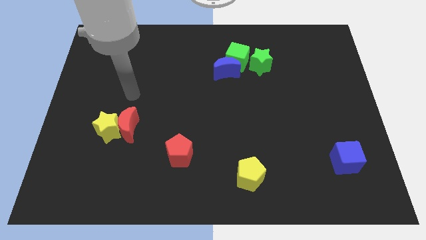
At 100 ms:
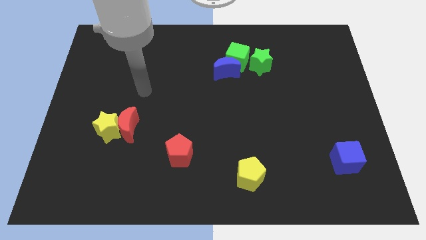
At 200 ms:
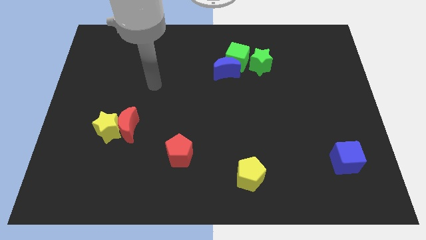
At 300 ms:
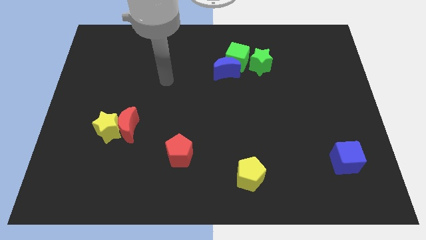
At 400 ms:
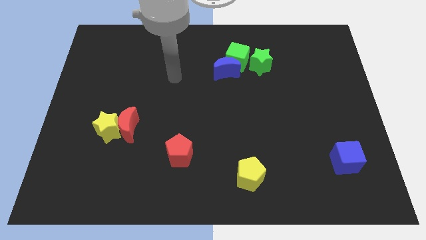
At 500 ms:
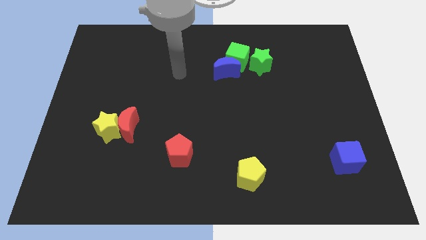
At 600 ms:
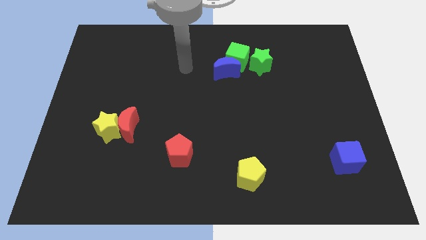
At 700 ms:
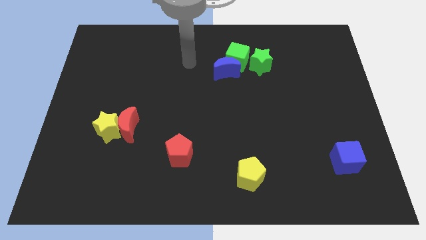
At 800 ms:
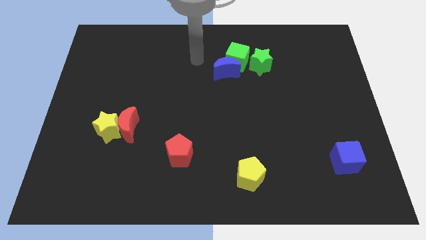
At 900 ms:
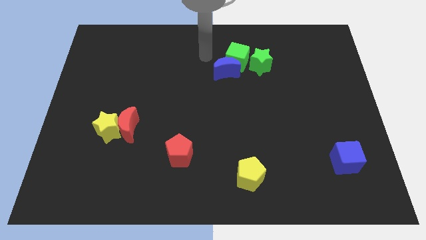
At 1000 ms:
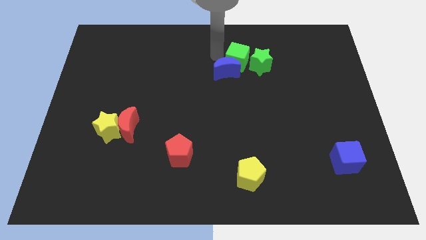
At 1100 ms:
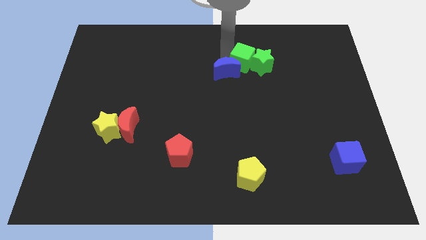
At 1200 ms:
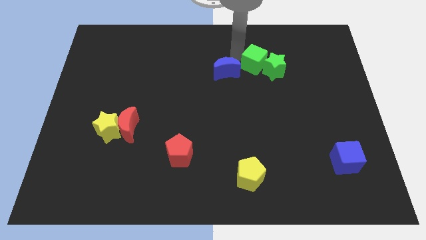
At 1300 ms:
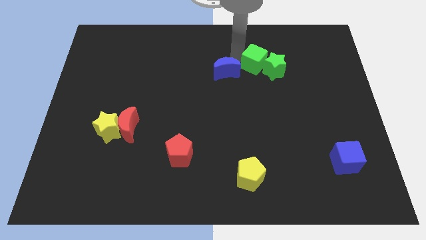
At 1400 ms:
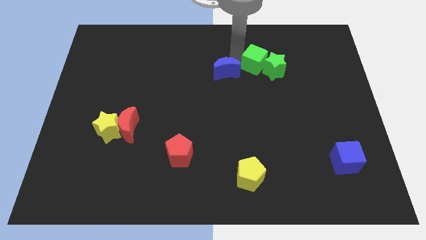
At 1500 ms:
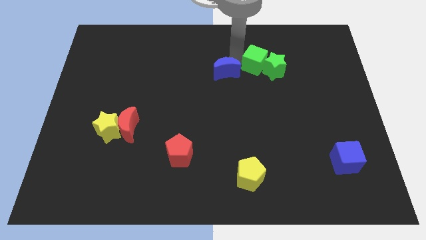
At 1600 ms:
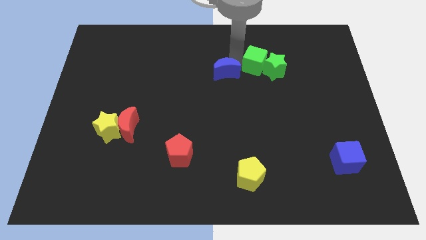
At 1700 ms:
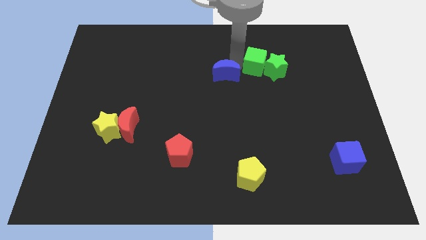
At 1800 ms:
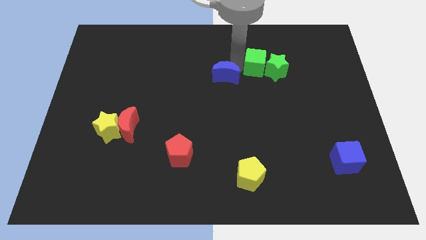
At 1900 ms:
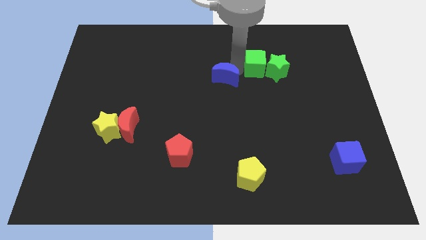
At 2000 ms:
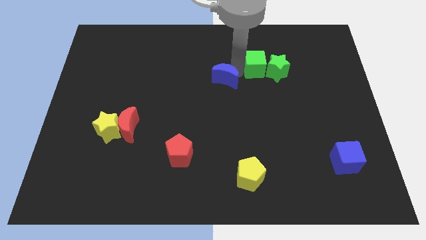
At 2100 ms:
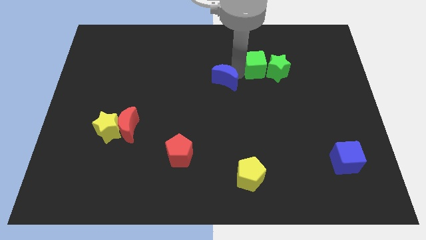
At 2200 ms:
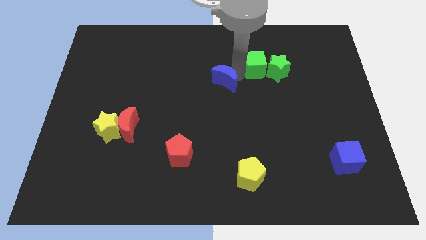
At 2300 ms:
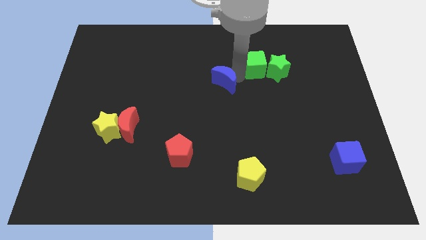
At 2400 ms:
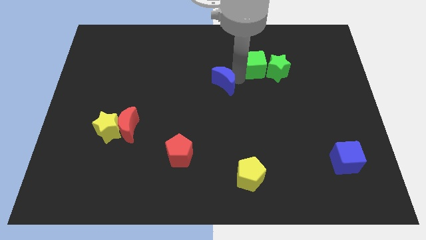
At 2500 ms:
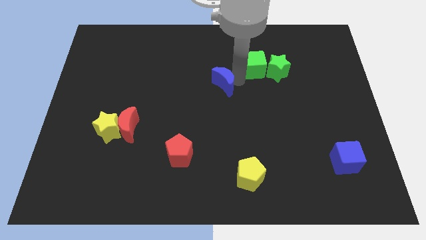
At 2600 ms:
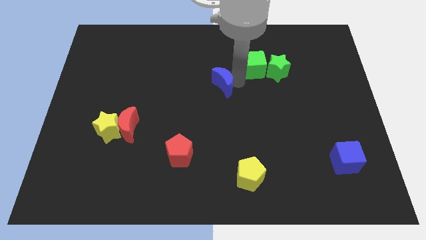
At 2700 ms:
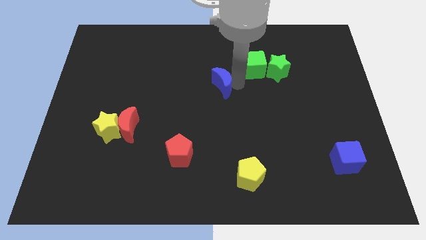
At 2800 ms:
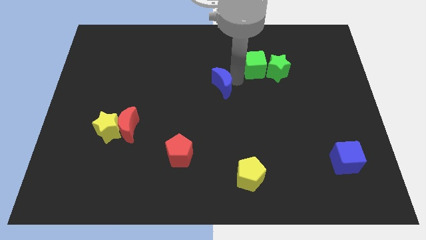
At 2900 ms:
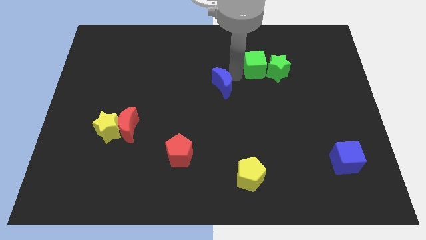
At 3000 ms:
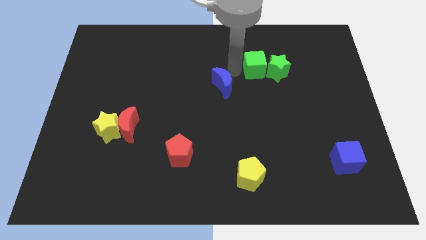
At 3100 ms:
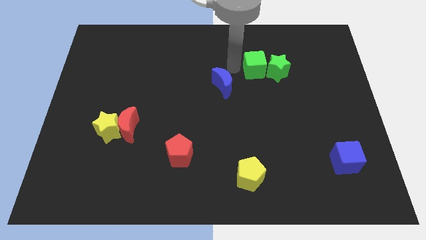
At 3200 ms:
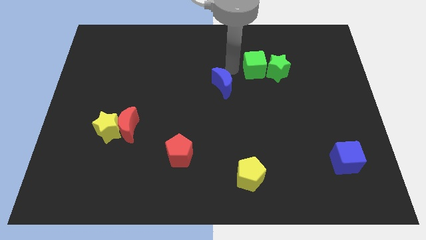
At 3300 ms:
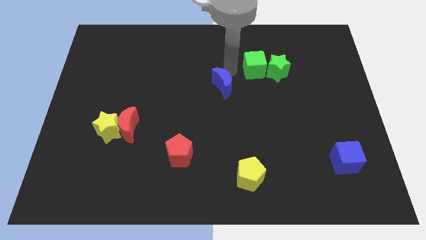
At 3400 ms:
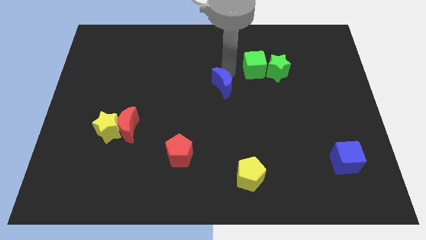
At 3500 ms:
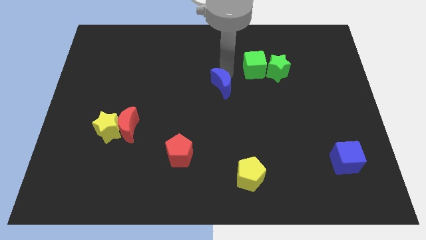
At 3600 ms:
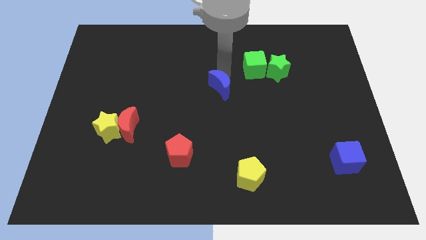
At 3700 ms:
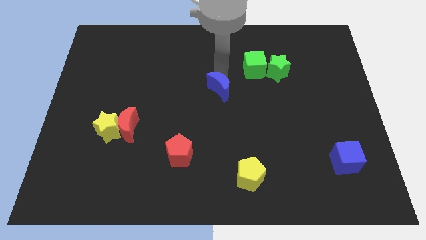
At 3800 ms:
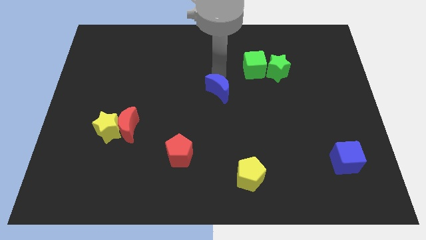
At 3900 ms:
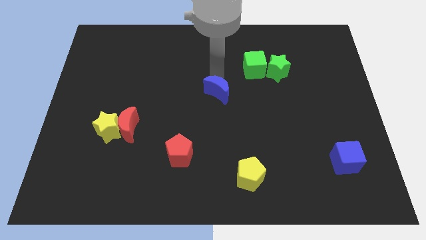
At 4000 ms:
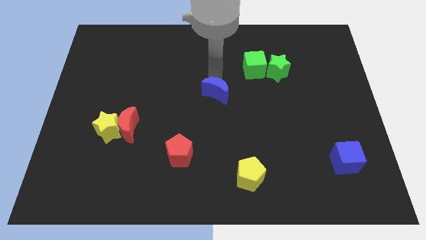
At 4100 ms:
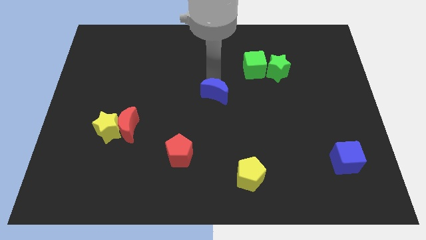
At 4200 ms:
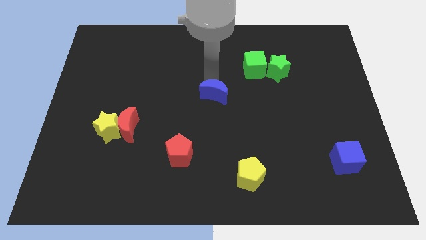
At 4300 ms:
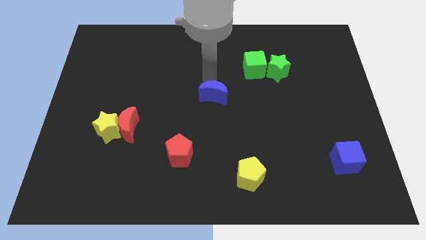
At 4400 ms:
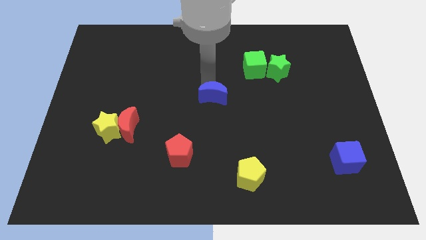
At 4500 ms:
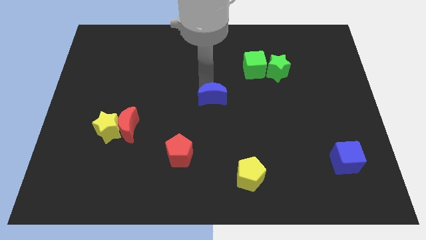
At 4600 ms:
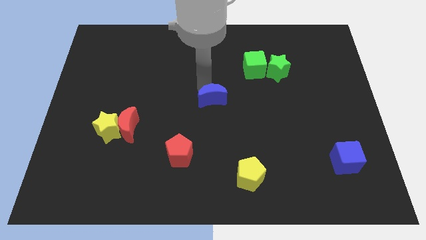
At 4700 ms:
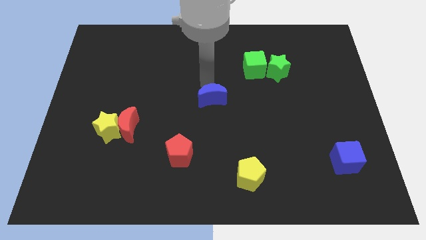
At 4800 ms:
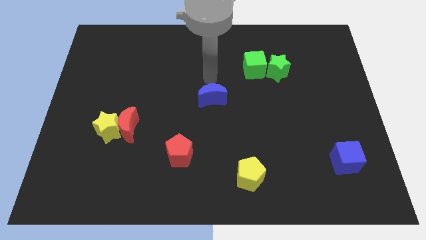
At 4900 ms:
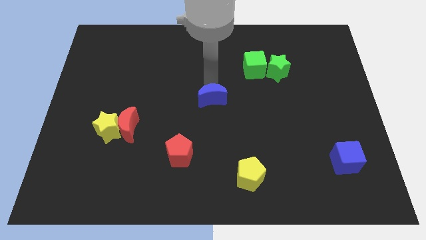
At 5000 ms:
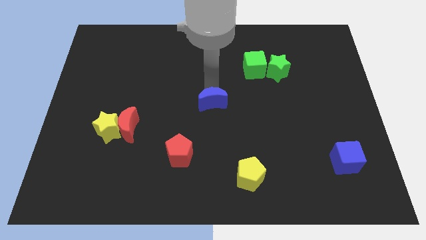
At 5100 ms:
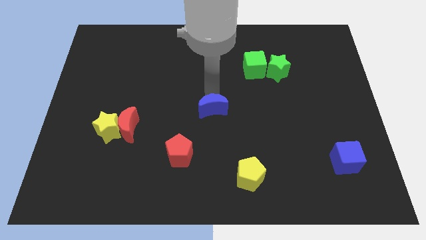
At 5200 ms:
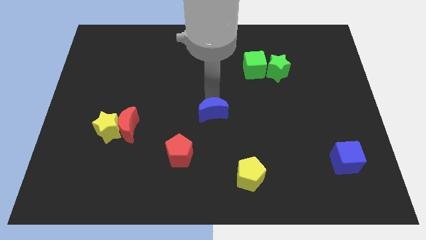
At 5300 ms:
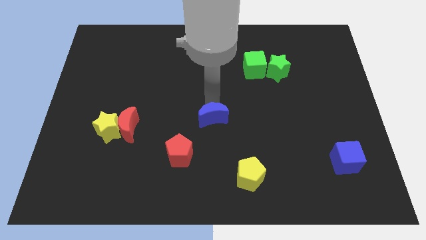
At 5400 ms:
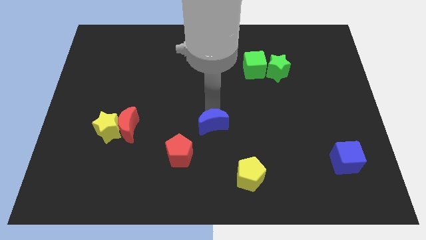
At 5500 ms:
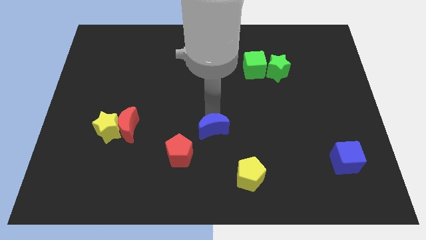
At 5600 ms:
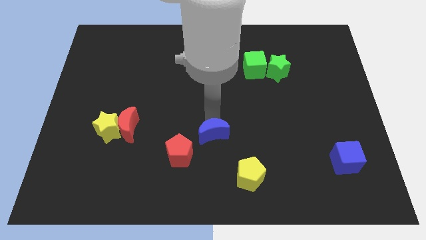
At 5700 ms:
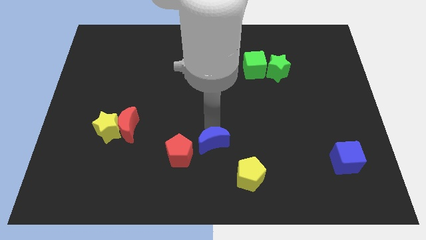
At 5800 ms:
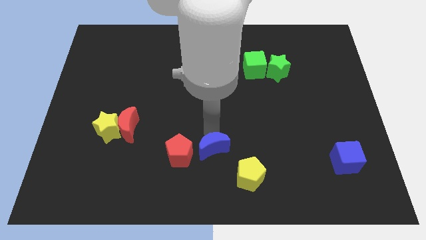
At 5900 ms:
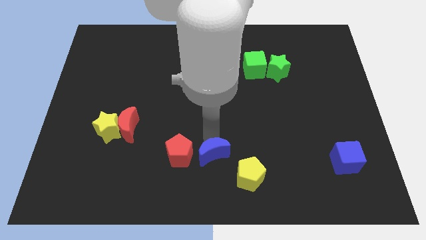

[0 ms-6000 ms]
push the blue moon to the bottom side
